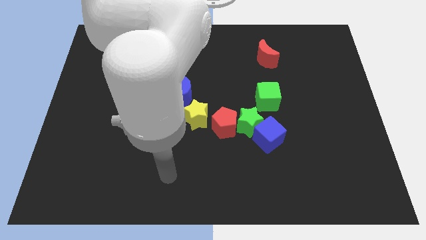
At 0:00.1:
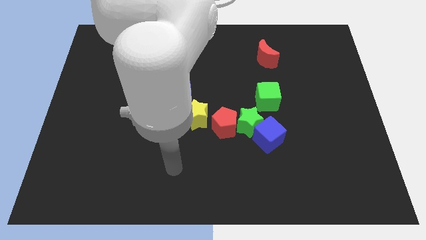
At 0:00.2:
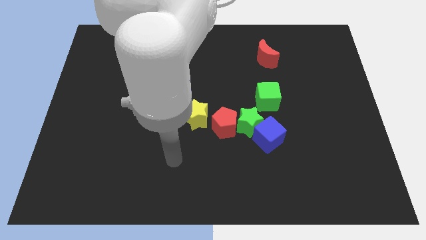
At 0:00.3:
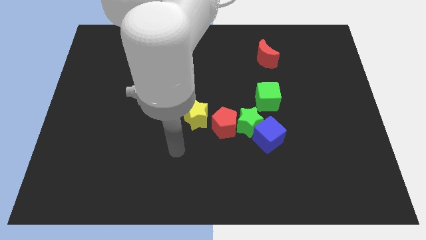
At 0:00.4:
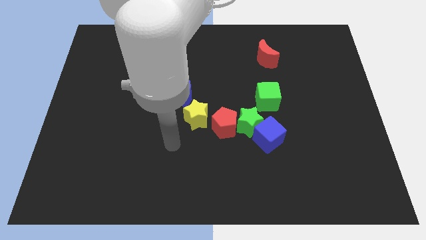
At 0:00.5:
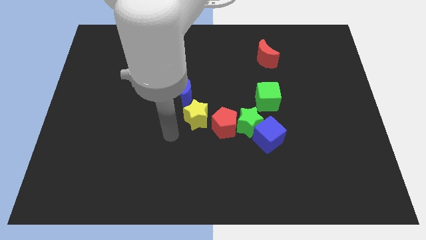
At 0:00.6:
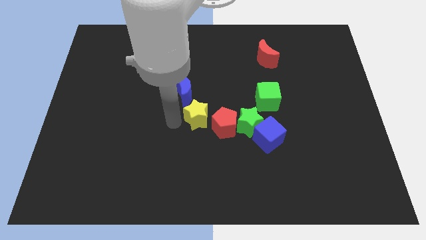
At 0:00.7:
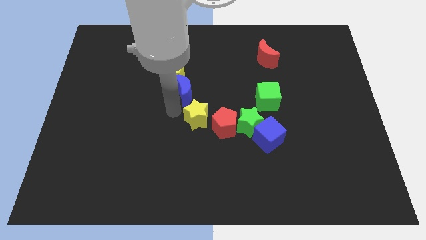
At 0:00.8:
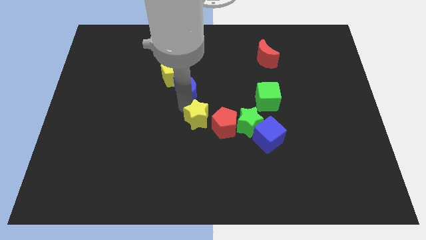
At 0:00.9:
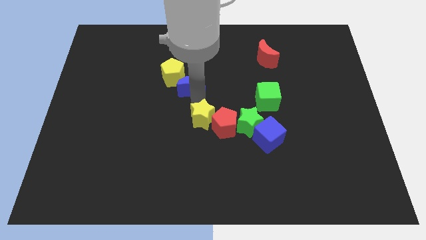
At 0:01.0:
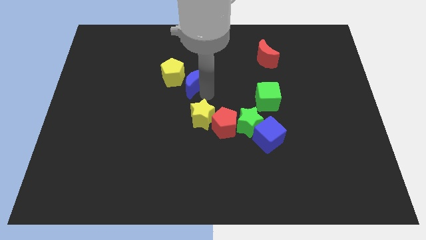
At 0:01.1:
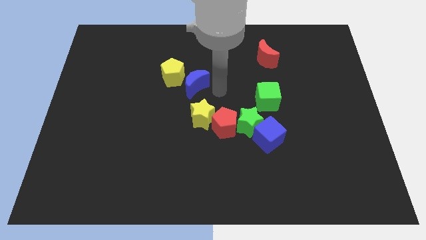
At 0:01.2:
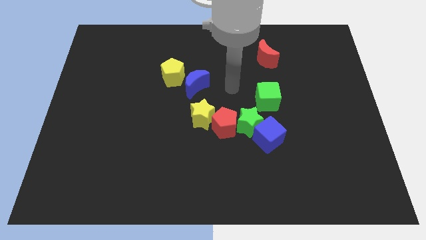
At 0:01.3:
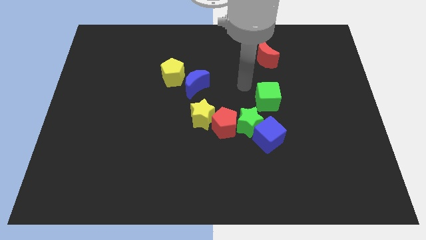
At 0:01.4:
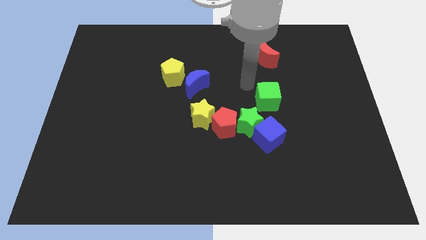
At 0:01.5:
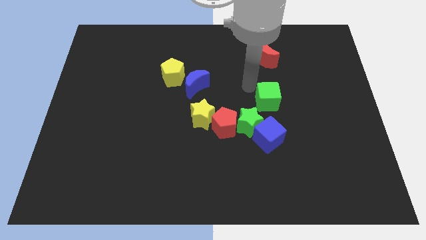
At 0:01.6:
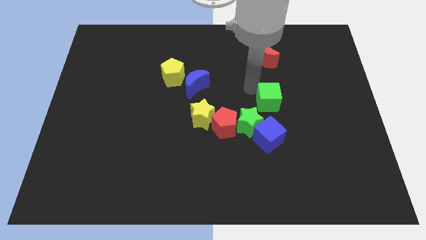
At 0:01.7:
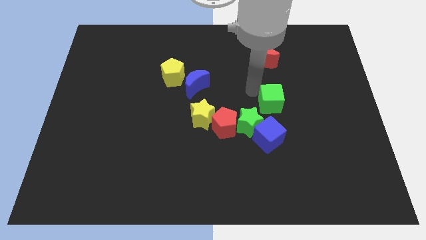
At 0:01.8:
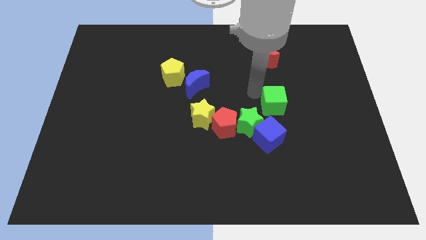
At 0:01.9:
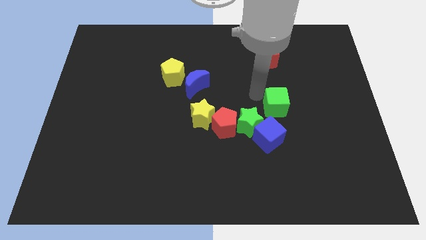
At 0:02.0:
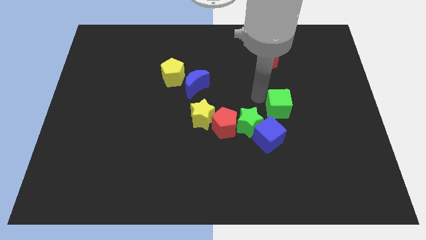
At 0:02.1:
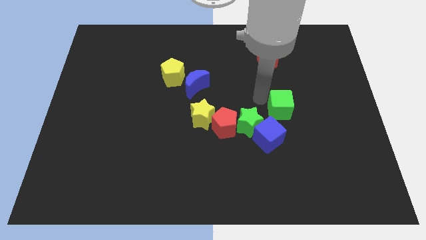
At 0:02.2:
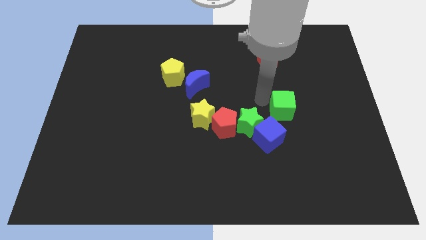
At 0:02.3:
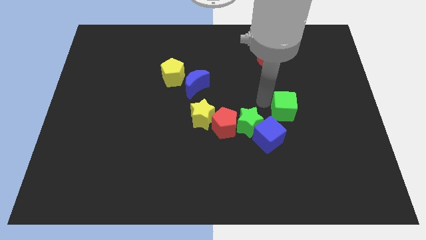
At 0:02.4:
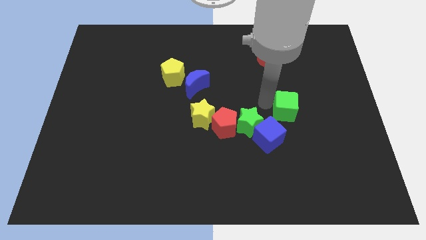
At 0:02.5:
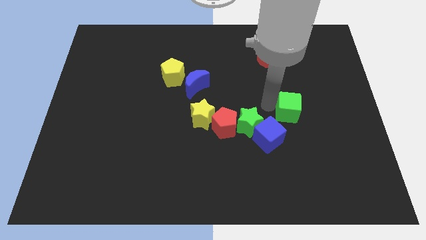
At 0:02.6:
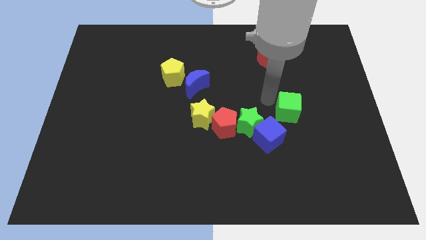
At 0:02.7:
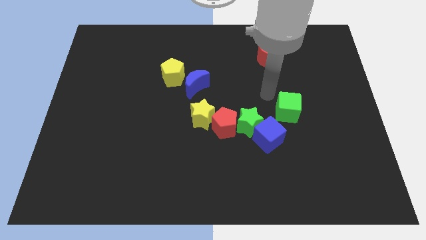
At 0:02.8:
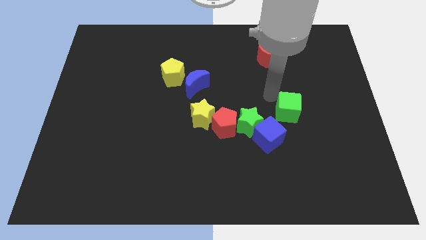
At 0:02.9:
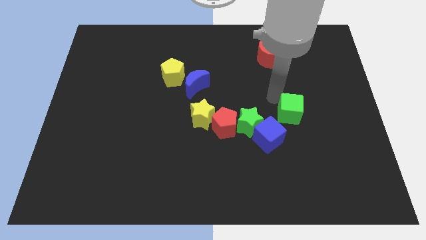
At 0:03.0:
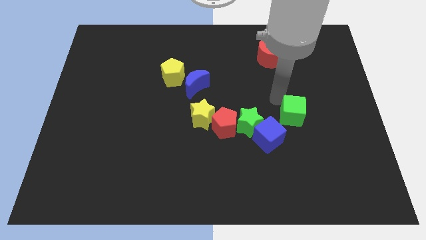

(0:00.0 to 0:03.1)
move the green cube a little diagonally down and right

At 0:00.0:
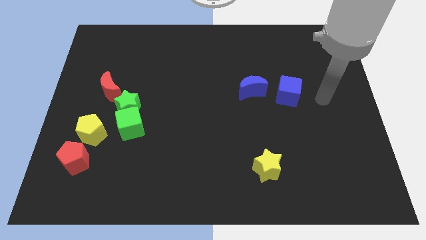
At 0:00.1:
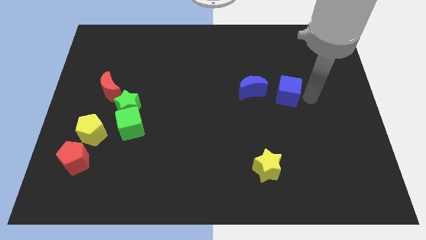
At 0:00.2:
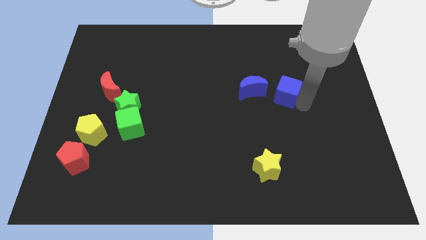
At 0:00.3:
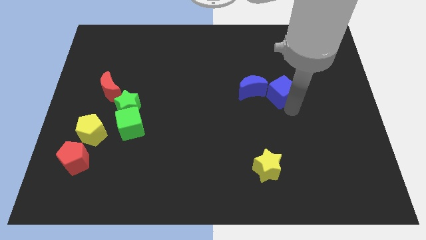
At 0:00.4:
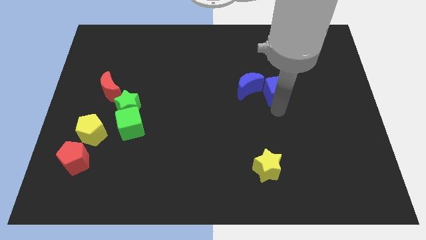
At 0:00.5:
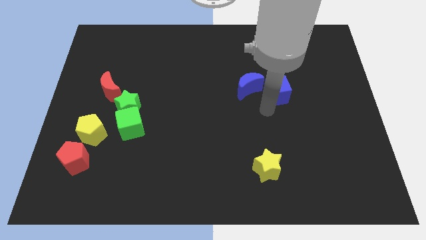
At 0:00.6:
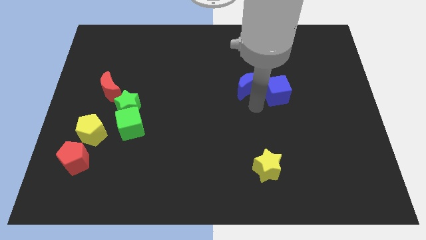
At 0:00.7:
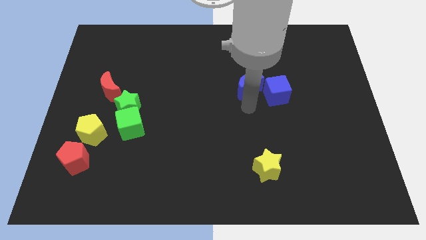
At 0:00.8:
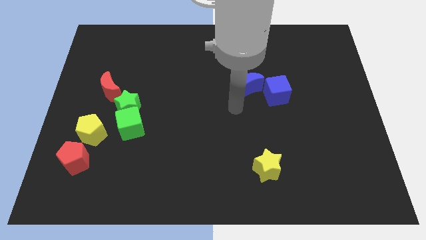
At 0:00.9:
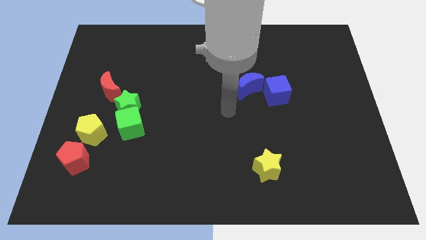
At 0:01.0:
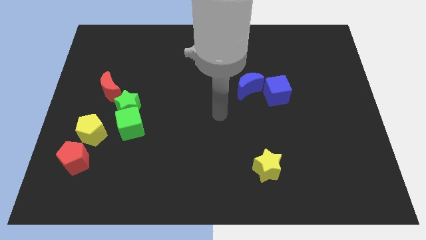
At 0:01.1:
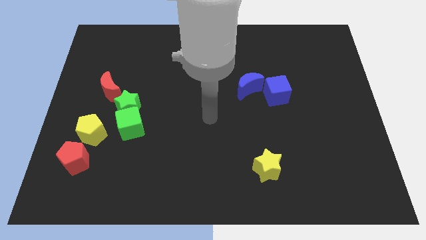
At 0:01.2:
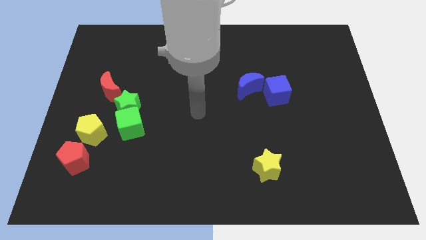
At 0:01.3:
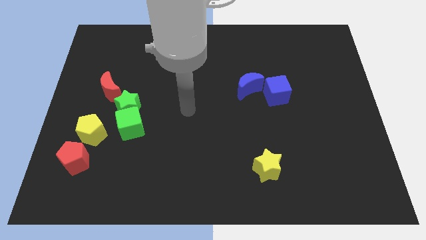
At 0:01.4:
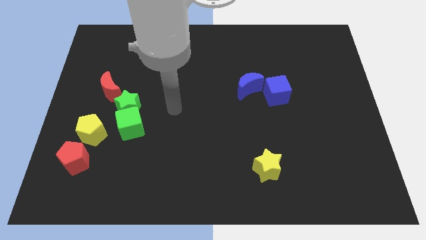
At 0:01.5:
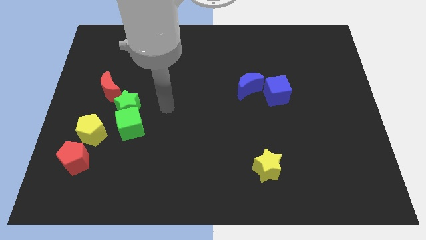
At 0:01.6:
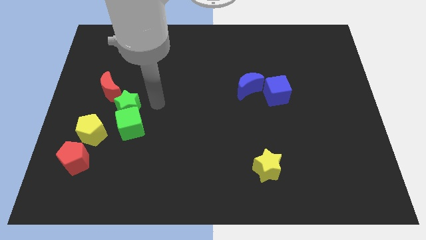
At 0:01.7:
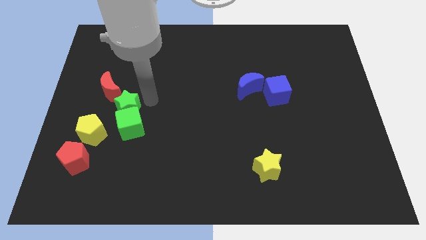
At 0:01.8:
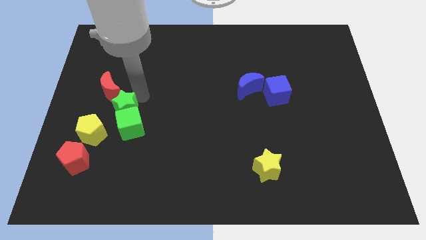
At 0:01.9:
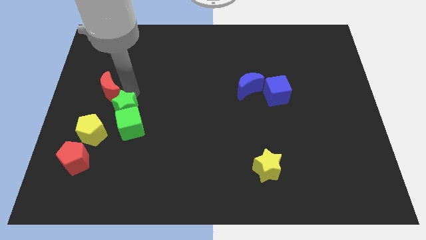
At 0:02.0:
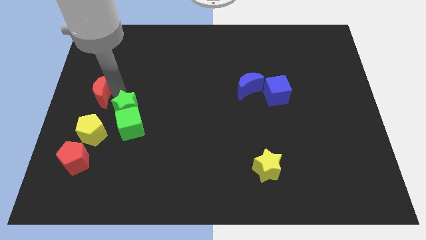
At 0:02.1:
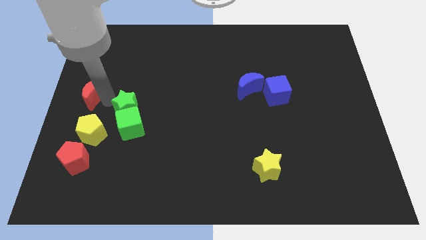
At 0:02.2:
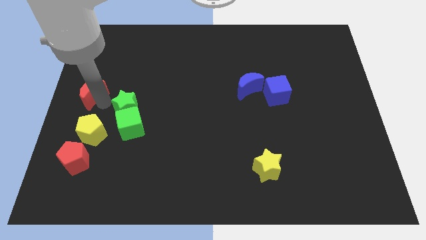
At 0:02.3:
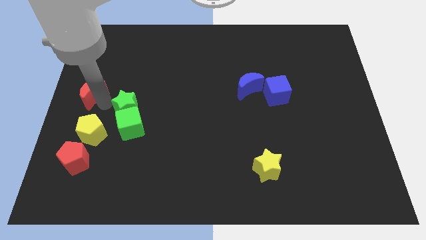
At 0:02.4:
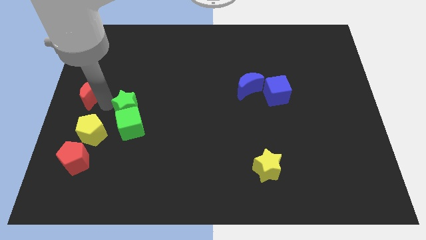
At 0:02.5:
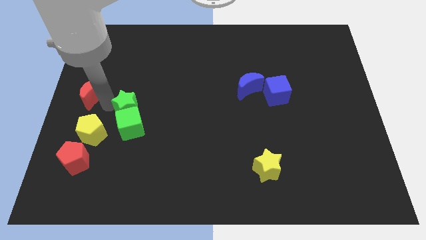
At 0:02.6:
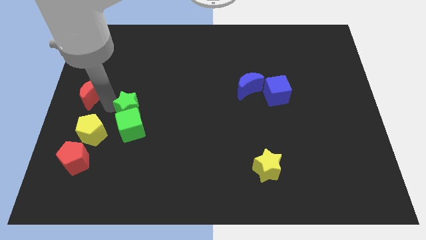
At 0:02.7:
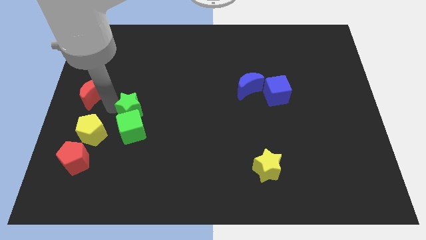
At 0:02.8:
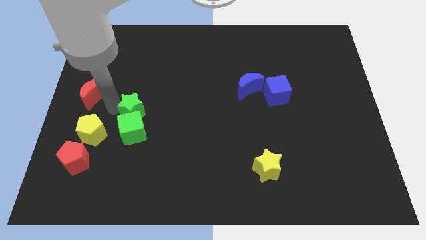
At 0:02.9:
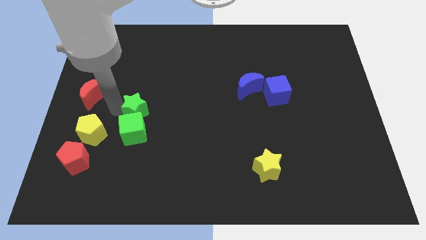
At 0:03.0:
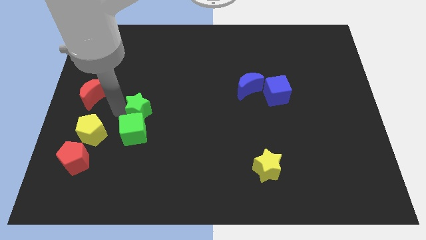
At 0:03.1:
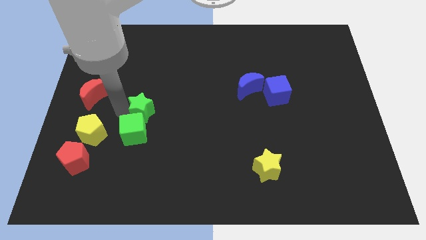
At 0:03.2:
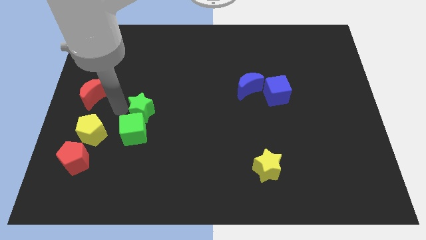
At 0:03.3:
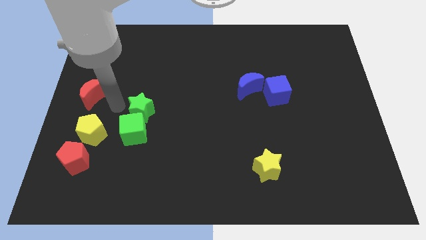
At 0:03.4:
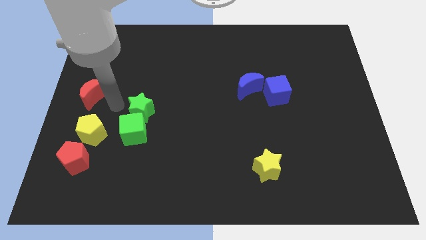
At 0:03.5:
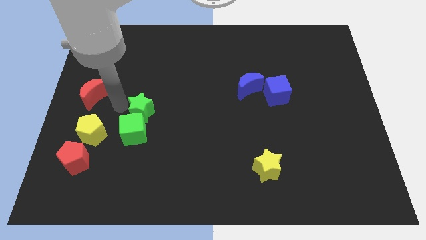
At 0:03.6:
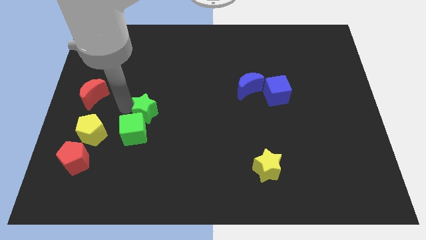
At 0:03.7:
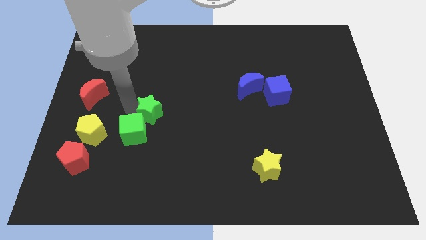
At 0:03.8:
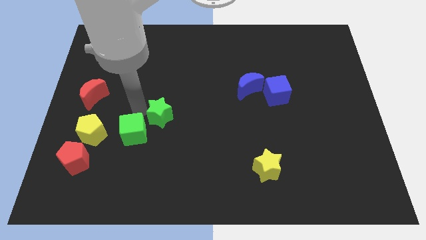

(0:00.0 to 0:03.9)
slightly move the green star to the right

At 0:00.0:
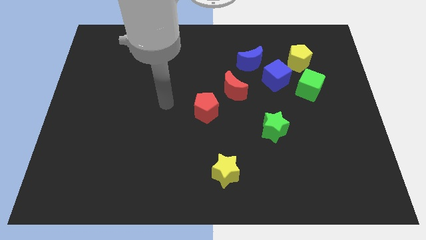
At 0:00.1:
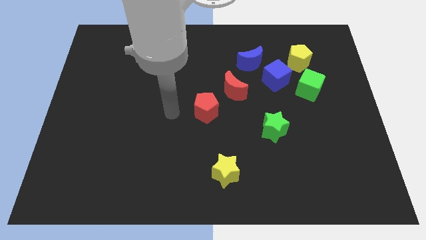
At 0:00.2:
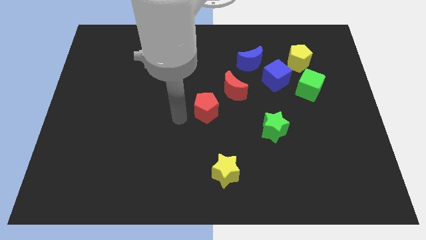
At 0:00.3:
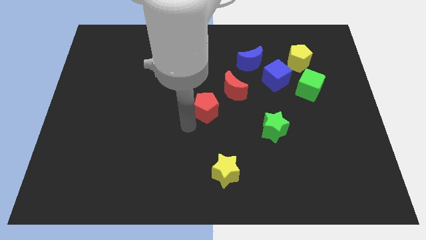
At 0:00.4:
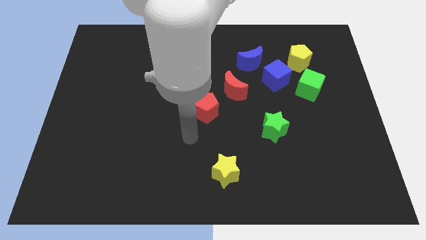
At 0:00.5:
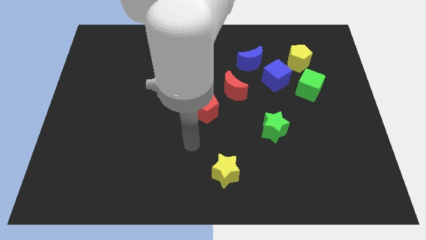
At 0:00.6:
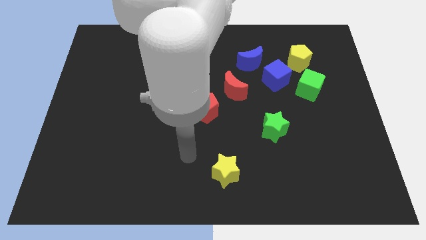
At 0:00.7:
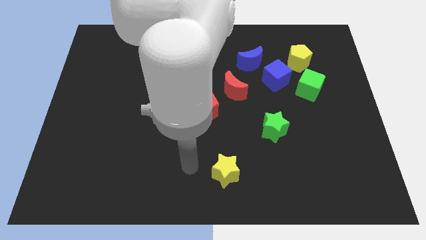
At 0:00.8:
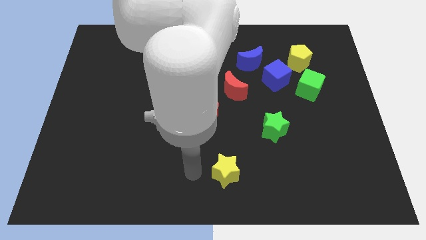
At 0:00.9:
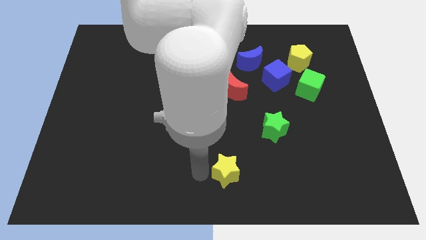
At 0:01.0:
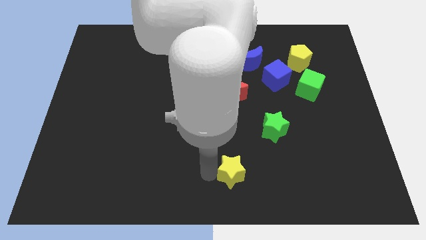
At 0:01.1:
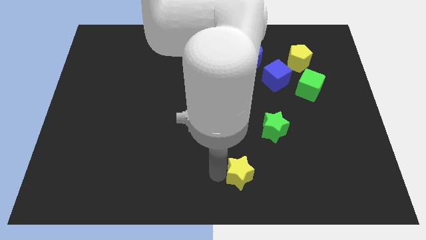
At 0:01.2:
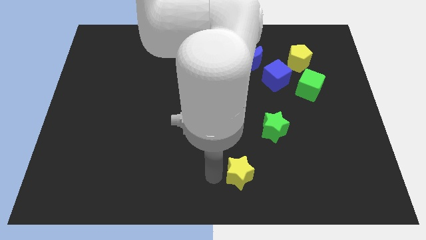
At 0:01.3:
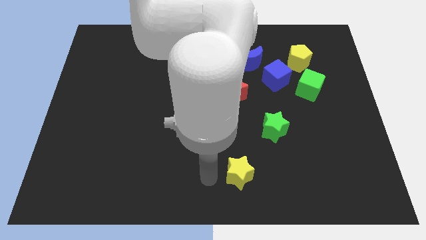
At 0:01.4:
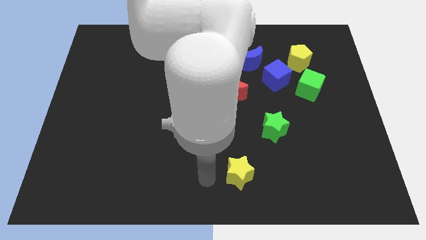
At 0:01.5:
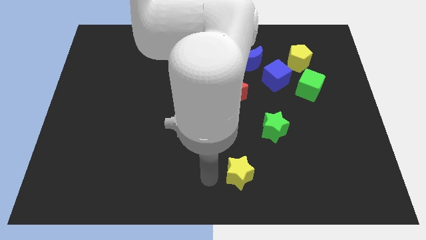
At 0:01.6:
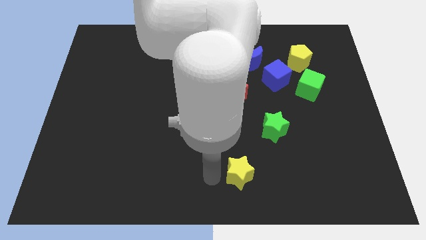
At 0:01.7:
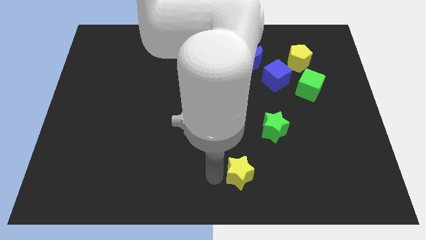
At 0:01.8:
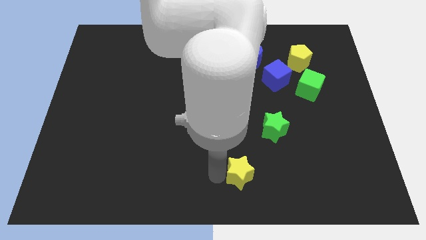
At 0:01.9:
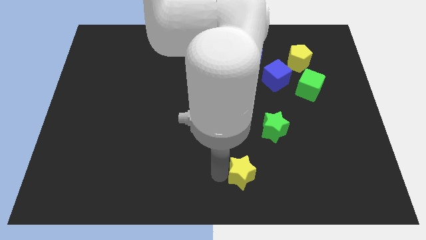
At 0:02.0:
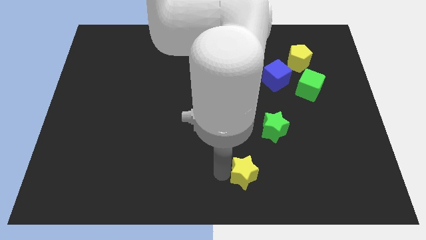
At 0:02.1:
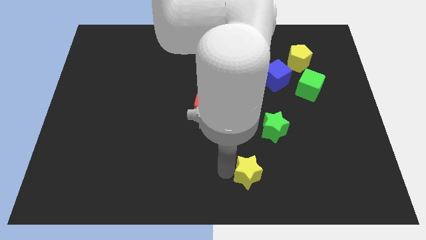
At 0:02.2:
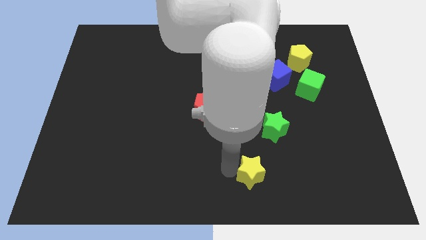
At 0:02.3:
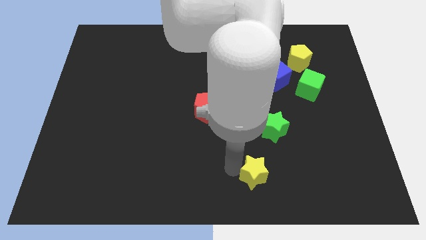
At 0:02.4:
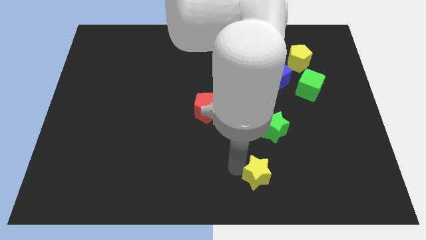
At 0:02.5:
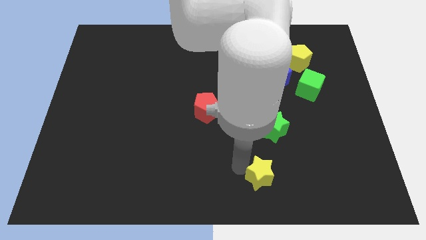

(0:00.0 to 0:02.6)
slightly move the yellow star right
